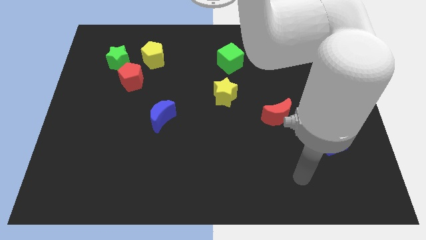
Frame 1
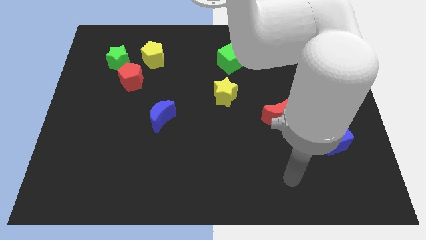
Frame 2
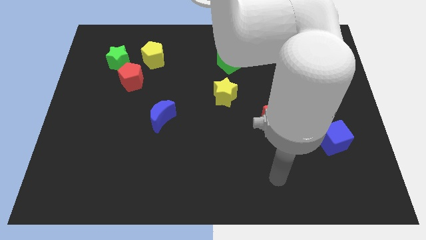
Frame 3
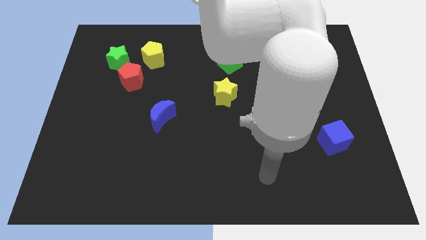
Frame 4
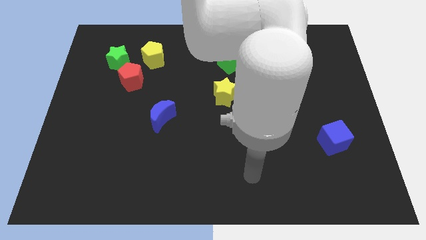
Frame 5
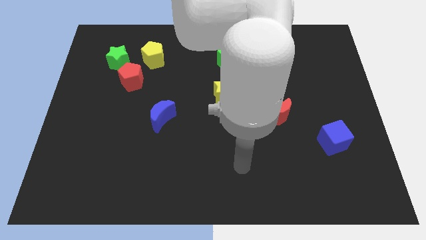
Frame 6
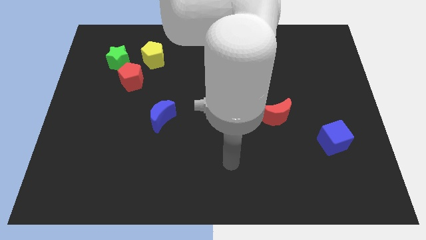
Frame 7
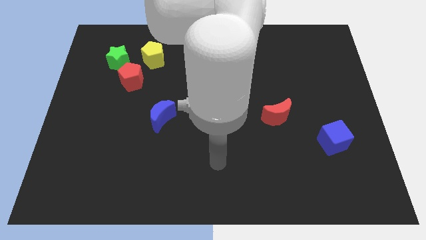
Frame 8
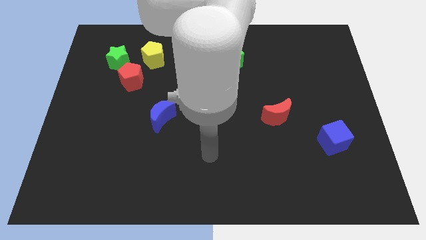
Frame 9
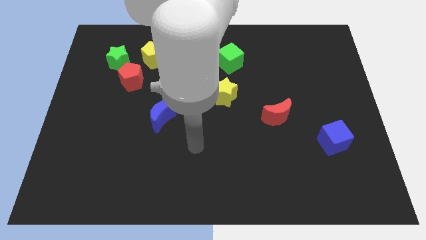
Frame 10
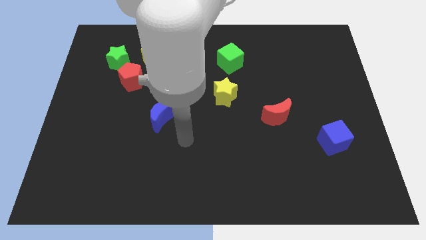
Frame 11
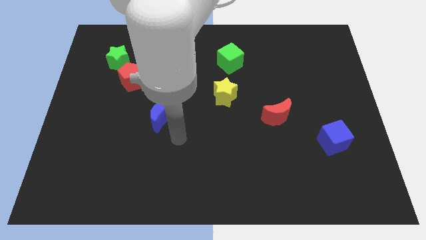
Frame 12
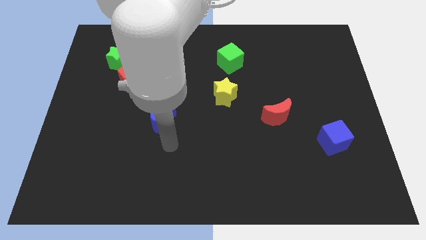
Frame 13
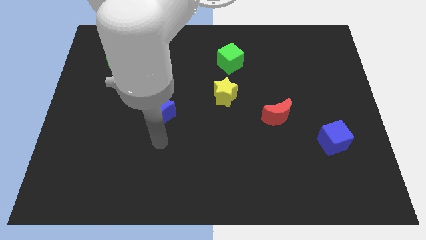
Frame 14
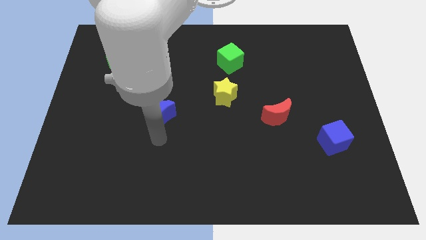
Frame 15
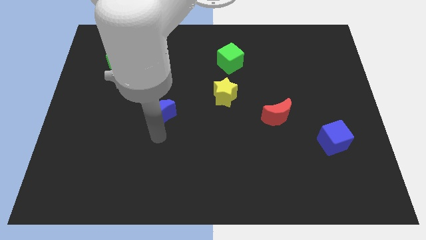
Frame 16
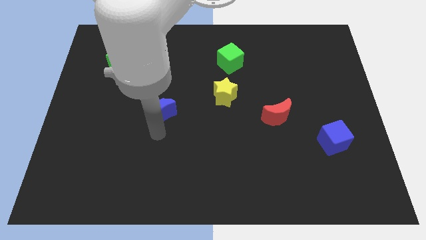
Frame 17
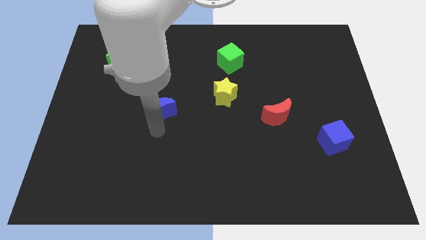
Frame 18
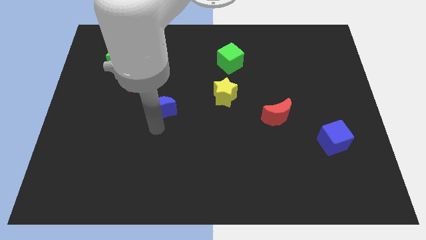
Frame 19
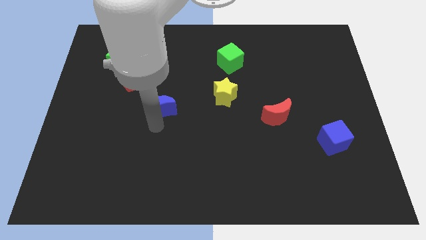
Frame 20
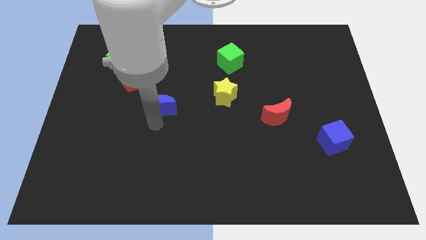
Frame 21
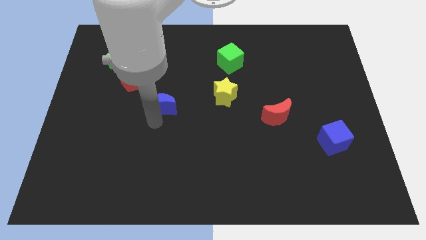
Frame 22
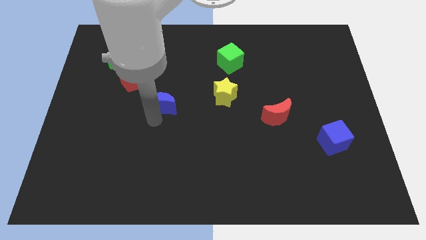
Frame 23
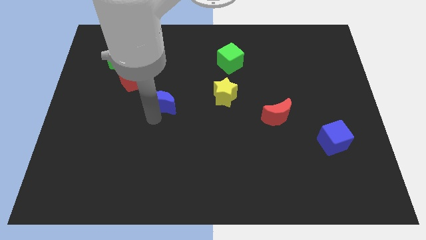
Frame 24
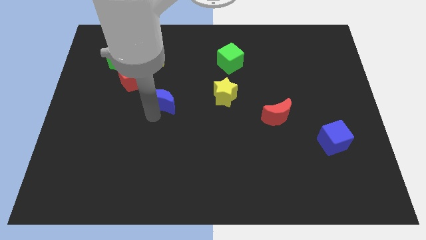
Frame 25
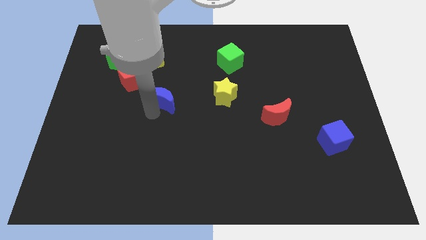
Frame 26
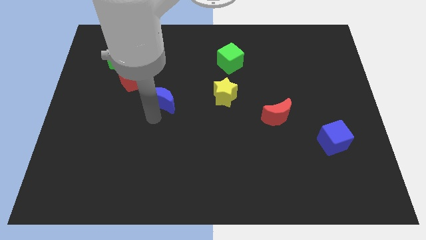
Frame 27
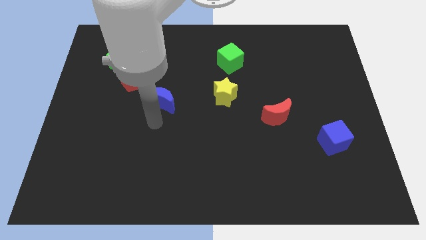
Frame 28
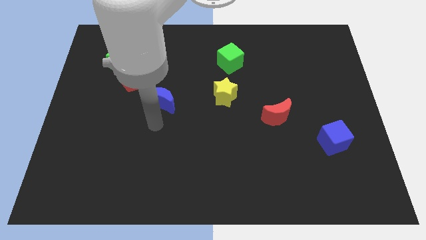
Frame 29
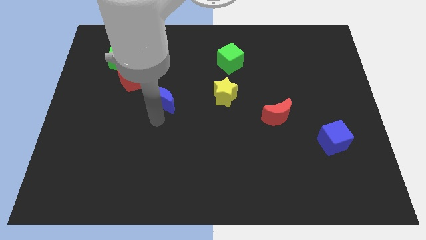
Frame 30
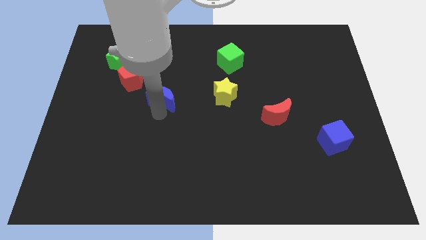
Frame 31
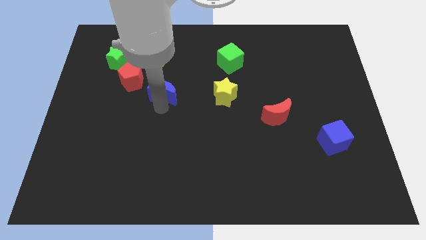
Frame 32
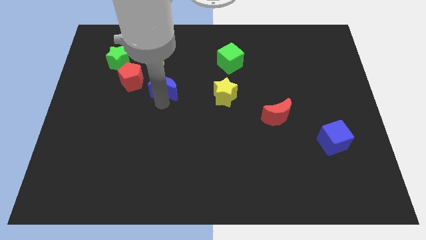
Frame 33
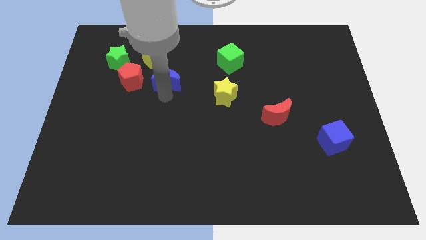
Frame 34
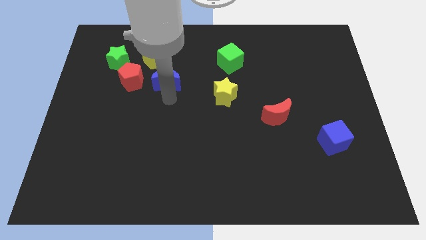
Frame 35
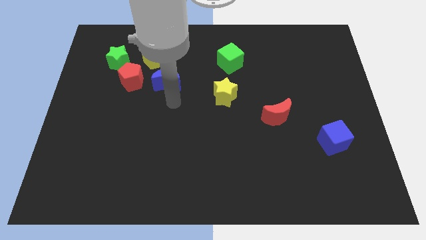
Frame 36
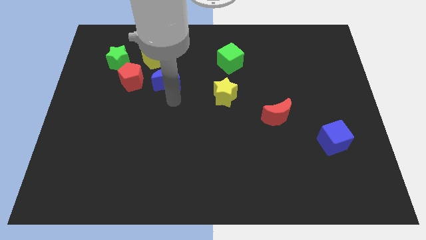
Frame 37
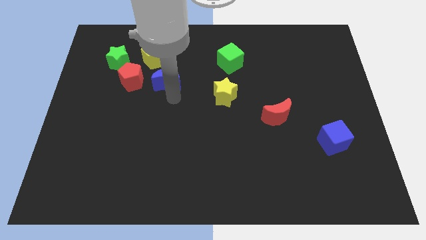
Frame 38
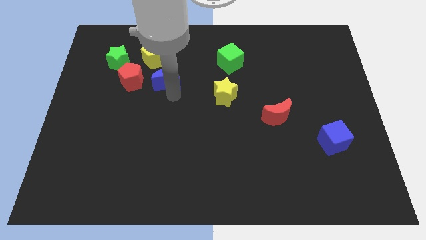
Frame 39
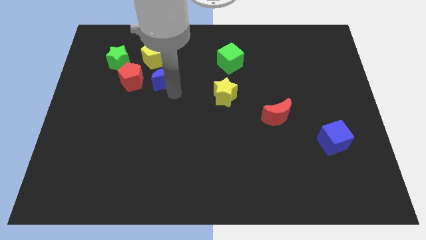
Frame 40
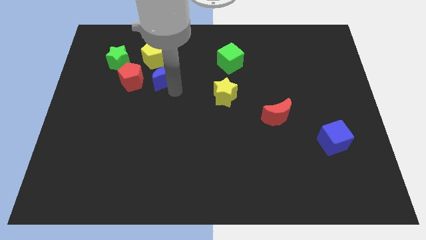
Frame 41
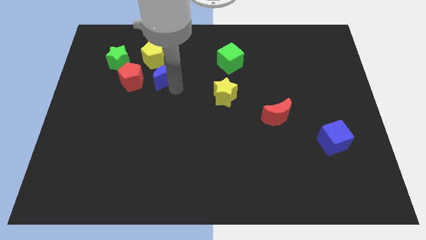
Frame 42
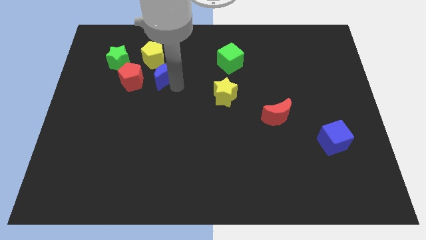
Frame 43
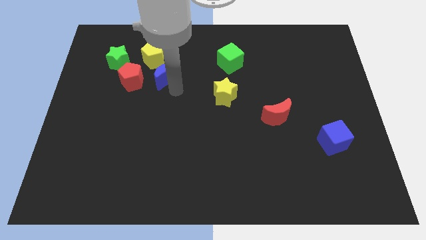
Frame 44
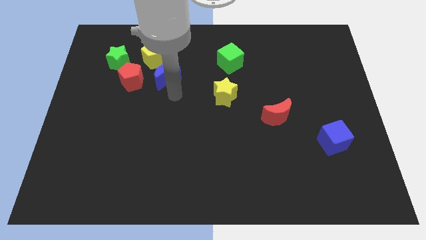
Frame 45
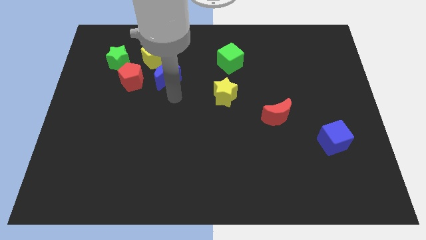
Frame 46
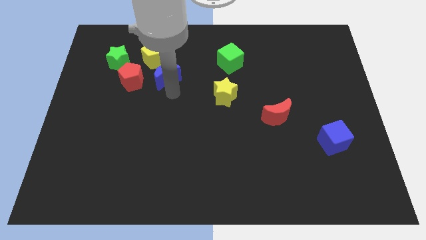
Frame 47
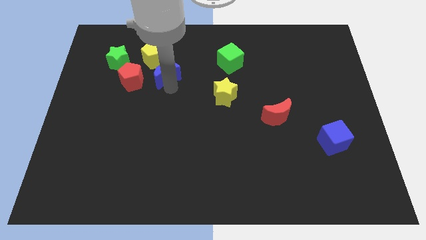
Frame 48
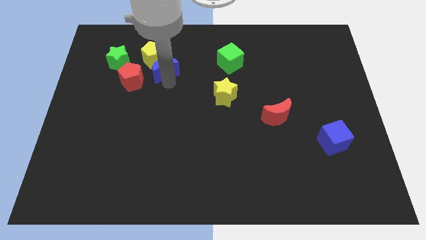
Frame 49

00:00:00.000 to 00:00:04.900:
put the blue moon just right of the green star

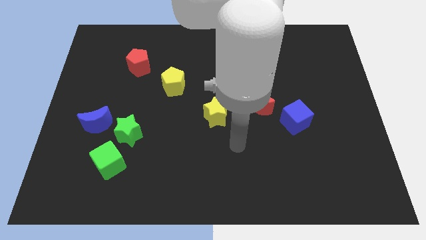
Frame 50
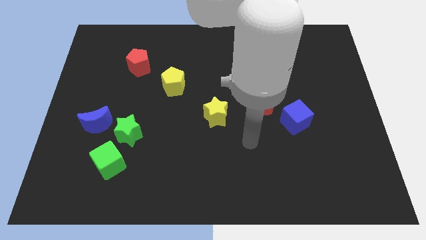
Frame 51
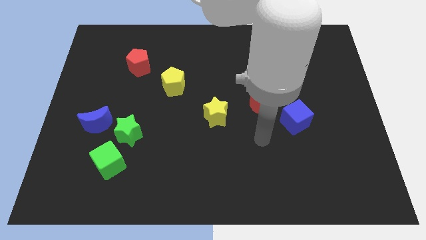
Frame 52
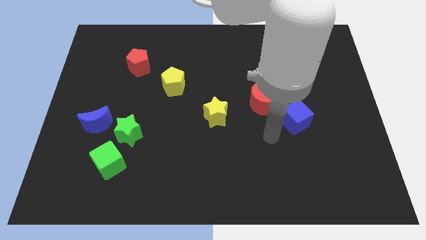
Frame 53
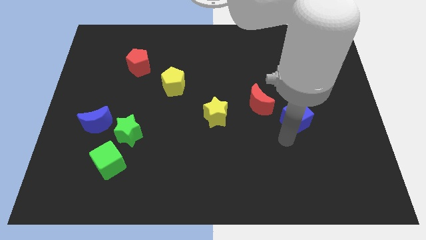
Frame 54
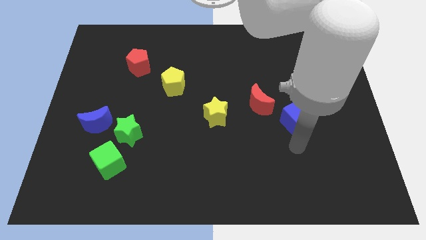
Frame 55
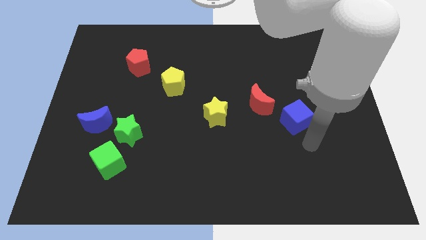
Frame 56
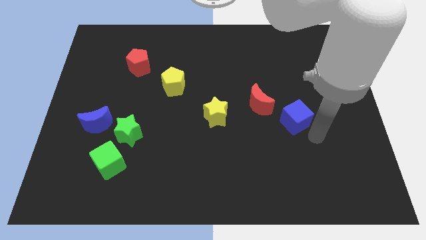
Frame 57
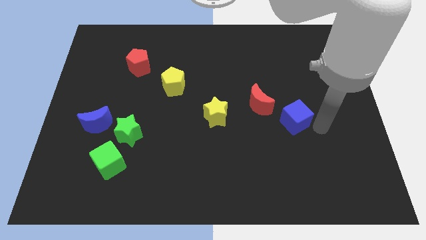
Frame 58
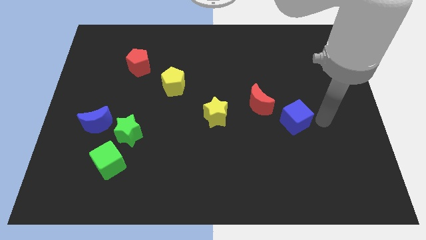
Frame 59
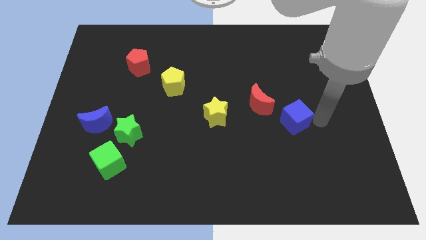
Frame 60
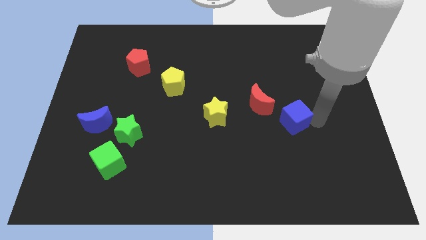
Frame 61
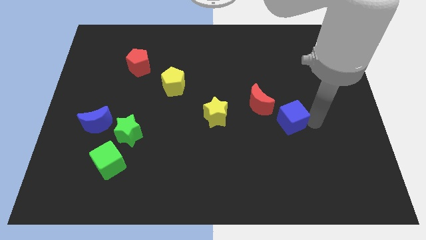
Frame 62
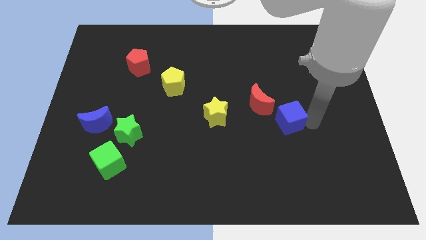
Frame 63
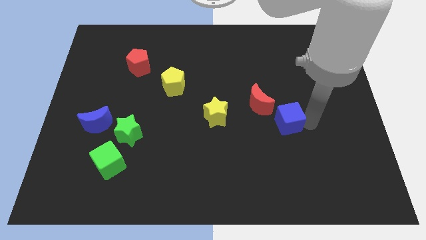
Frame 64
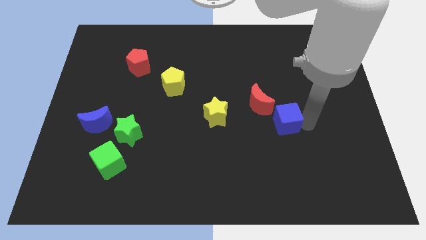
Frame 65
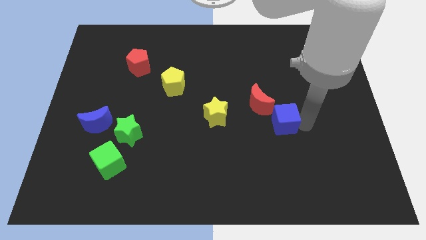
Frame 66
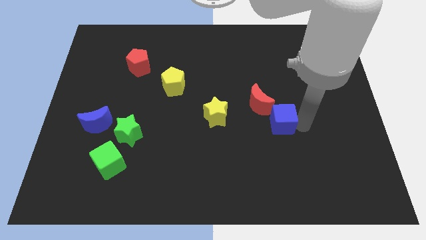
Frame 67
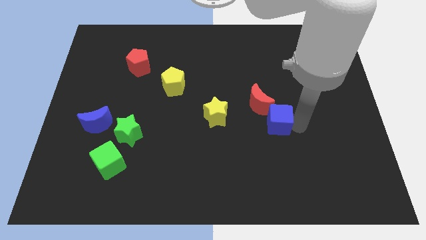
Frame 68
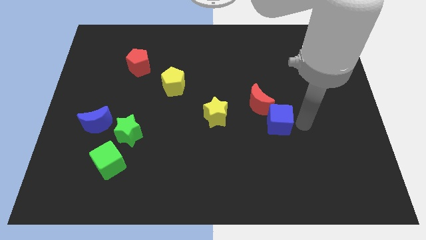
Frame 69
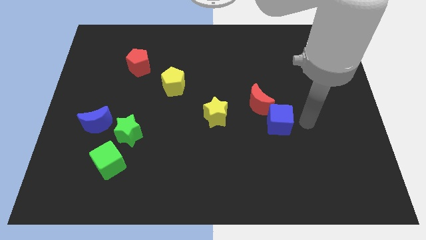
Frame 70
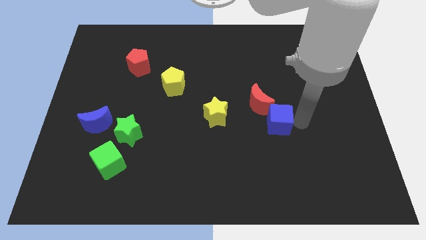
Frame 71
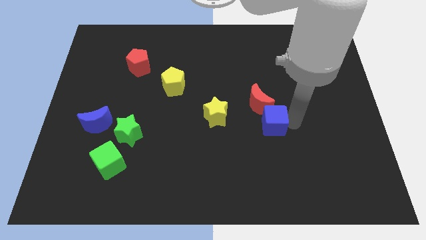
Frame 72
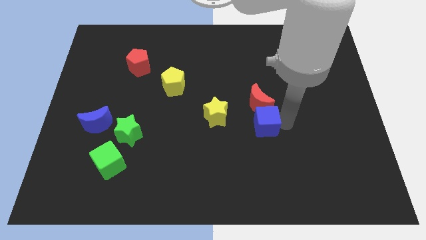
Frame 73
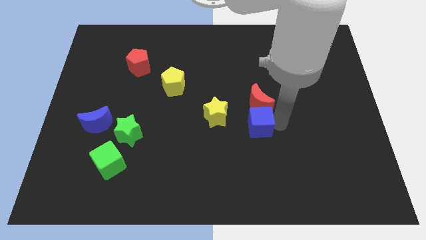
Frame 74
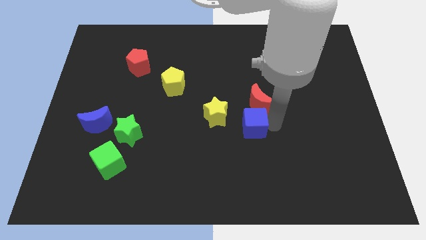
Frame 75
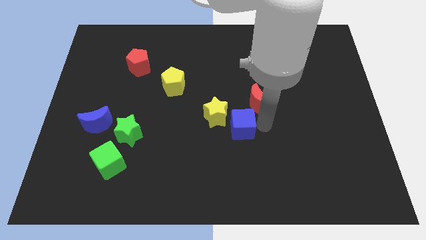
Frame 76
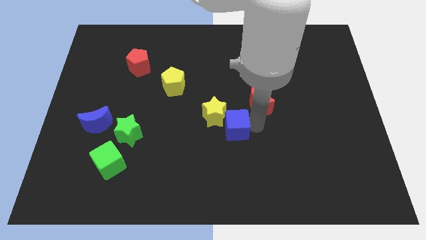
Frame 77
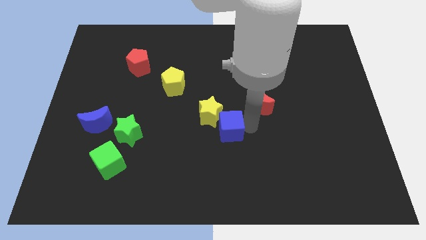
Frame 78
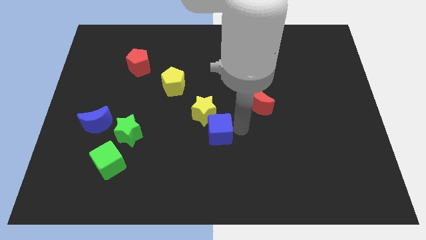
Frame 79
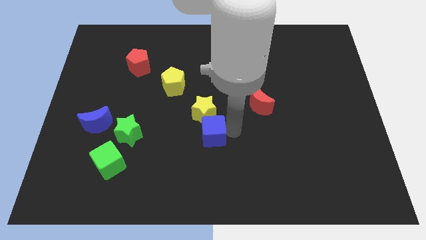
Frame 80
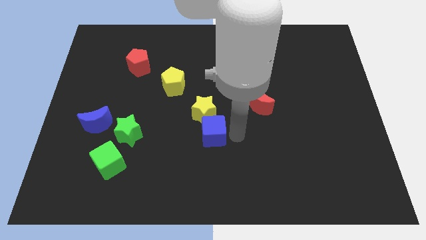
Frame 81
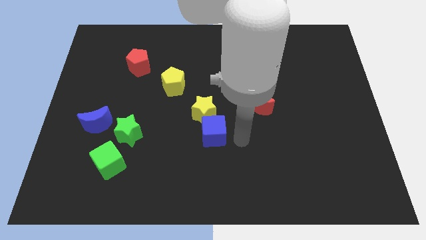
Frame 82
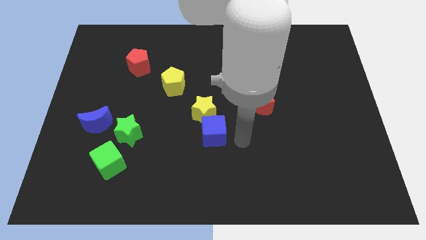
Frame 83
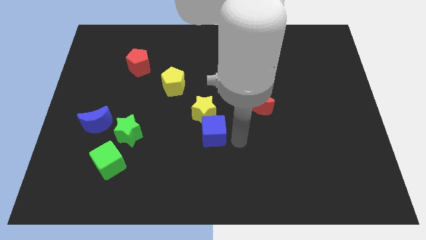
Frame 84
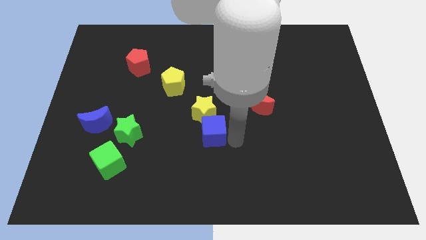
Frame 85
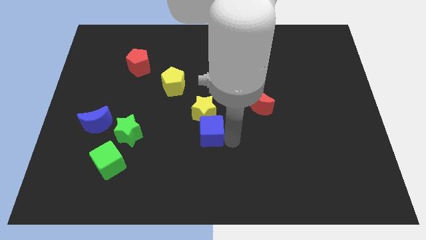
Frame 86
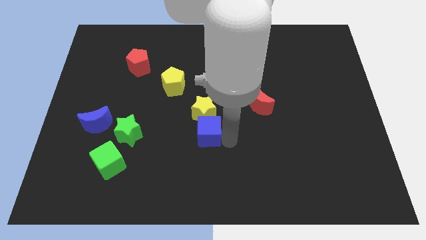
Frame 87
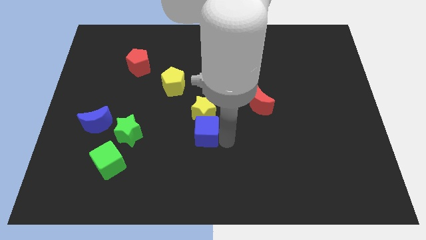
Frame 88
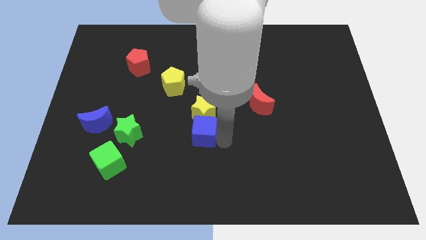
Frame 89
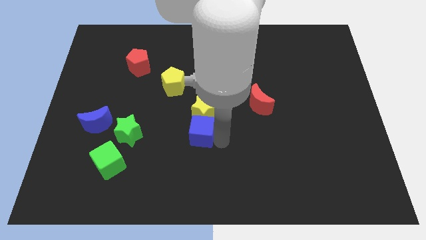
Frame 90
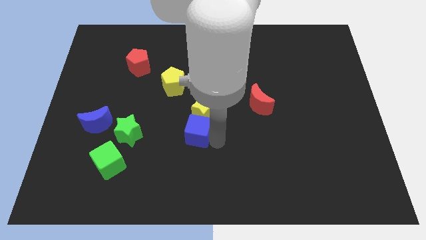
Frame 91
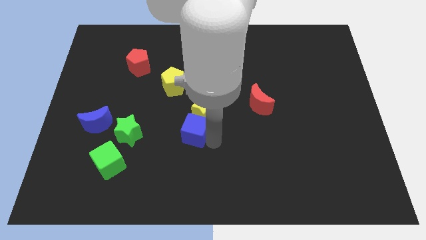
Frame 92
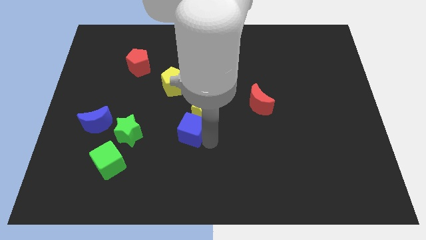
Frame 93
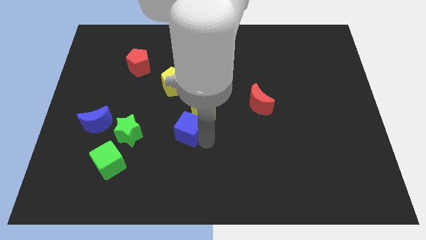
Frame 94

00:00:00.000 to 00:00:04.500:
slide the blue cube to the bottom of the yellow pentagon
